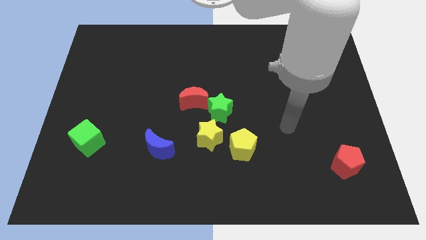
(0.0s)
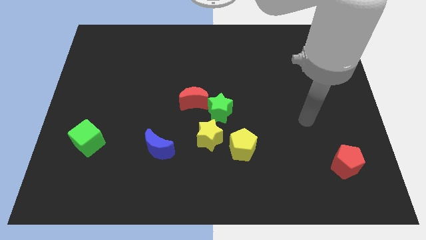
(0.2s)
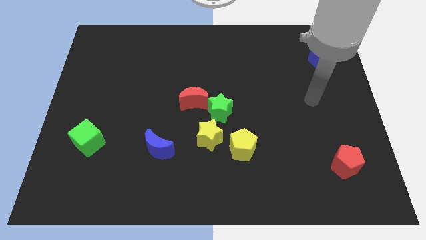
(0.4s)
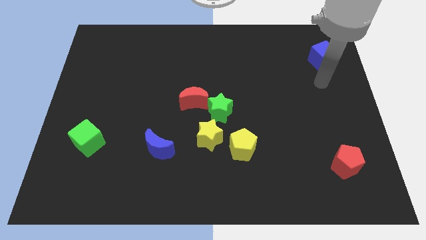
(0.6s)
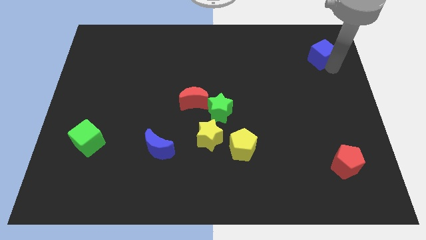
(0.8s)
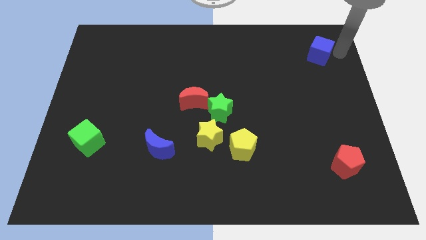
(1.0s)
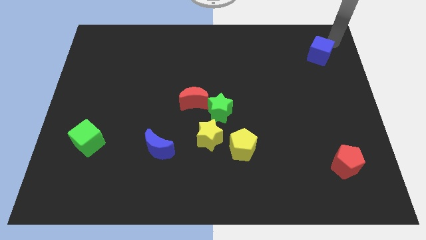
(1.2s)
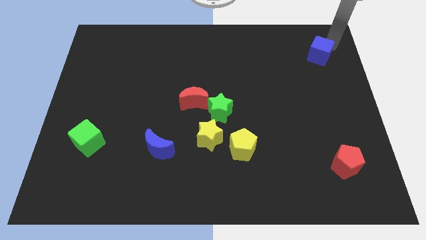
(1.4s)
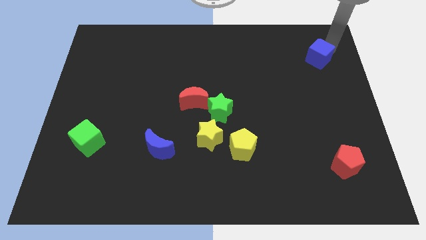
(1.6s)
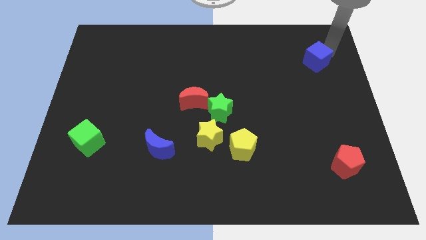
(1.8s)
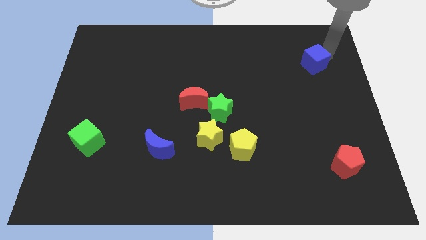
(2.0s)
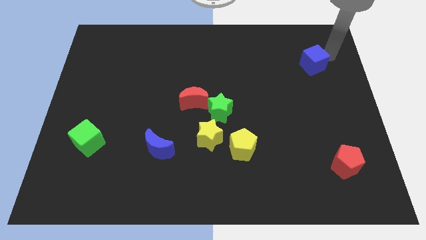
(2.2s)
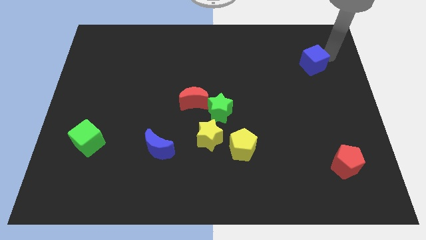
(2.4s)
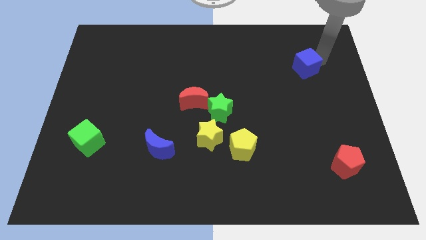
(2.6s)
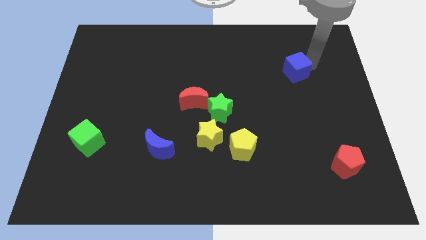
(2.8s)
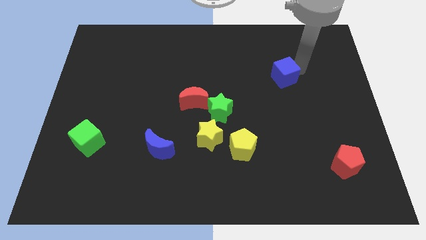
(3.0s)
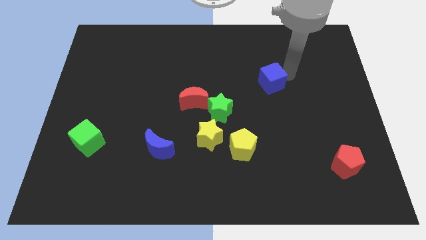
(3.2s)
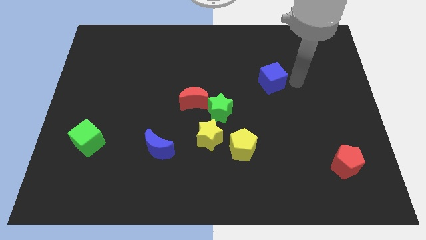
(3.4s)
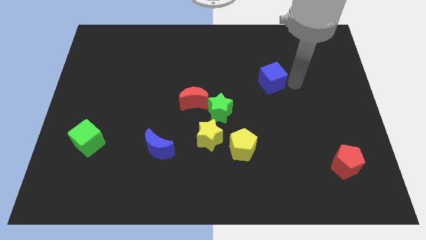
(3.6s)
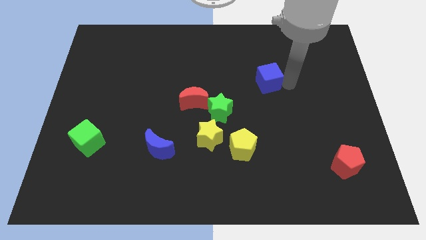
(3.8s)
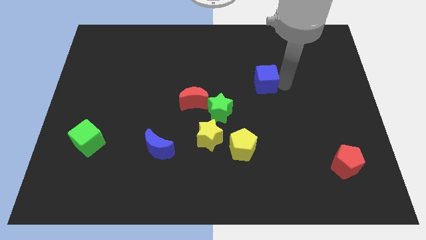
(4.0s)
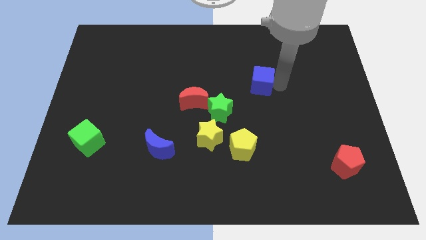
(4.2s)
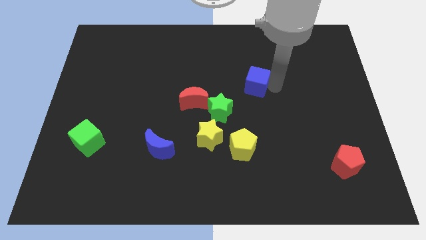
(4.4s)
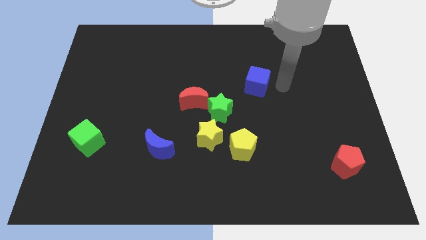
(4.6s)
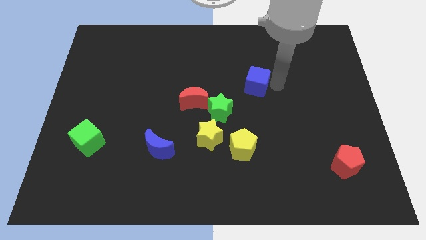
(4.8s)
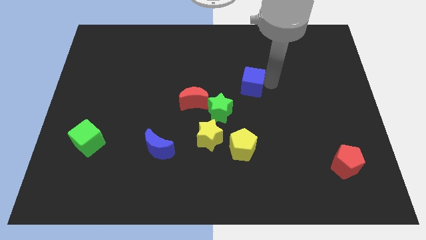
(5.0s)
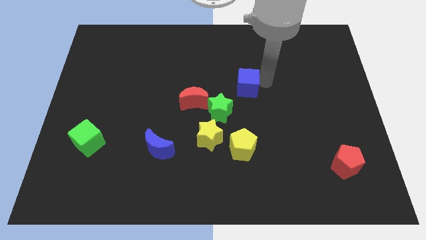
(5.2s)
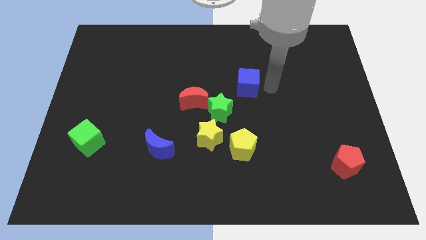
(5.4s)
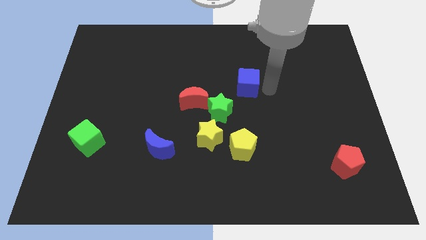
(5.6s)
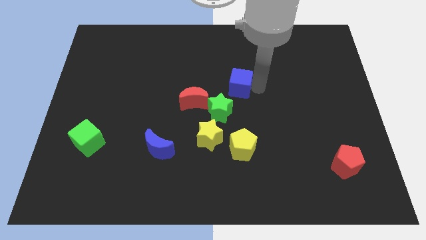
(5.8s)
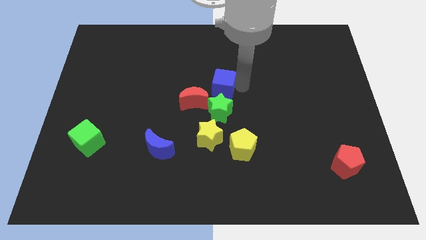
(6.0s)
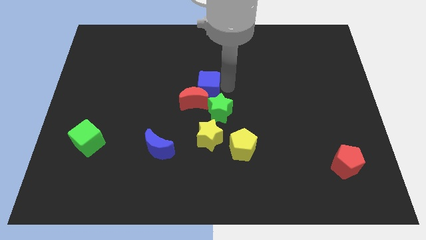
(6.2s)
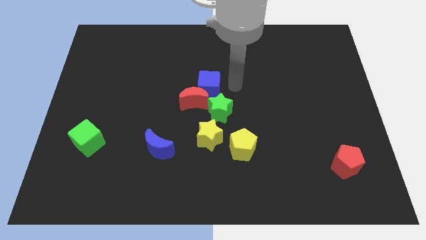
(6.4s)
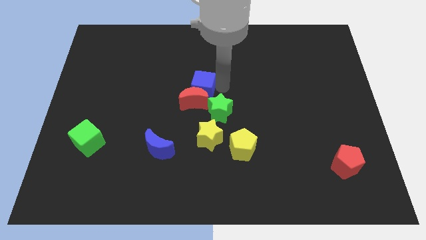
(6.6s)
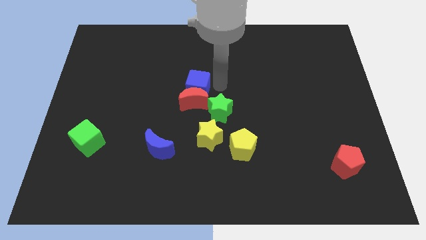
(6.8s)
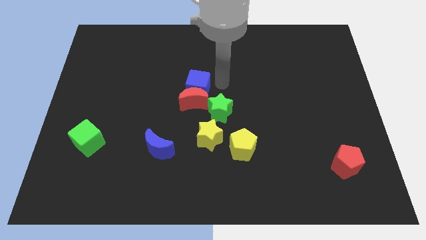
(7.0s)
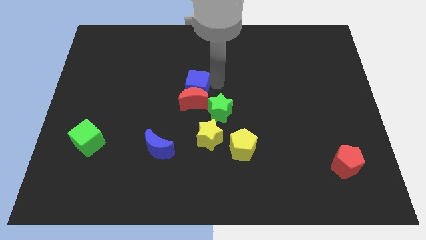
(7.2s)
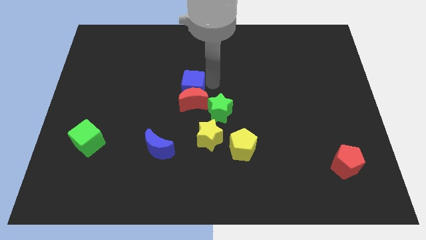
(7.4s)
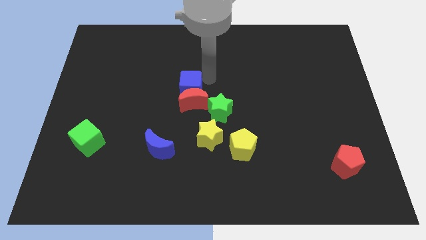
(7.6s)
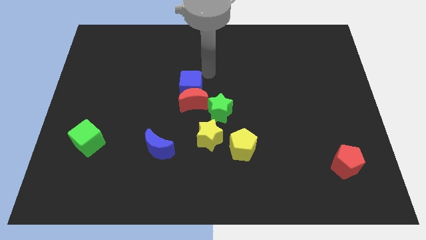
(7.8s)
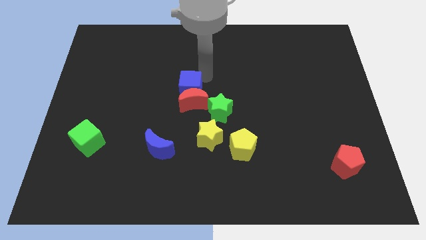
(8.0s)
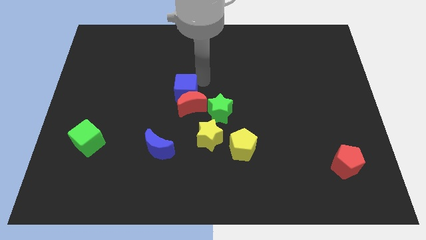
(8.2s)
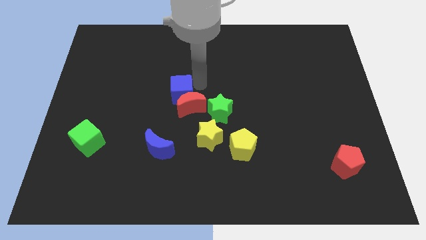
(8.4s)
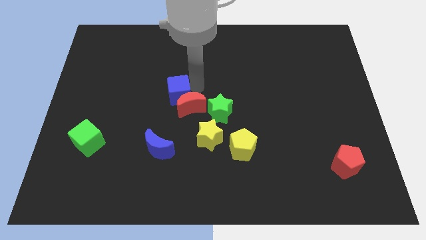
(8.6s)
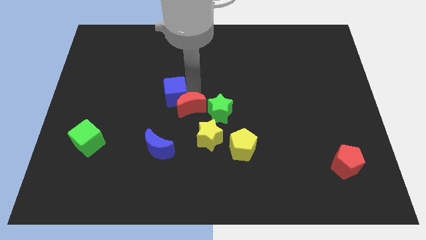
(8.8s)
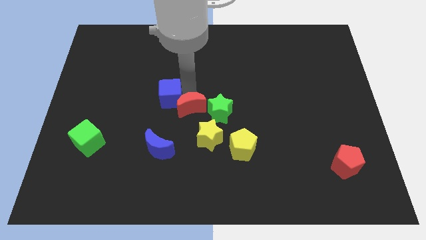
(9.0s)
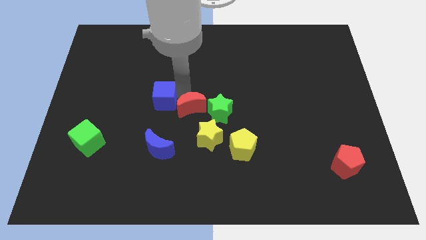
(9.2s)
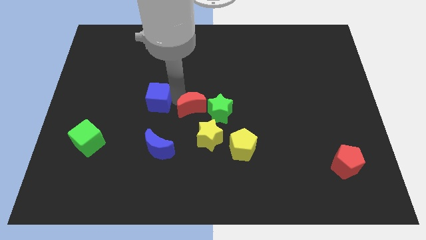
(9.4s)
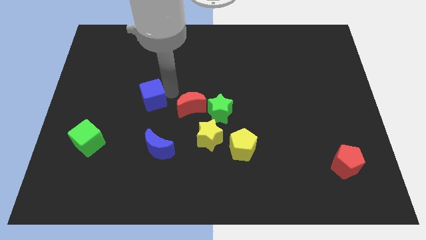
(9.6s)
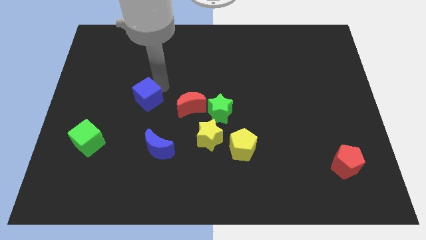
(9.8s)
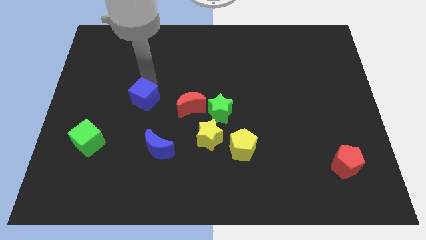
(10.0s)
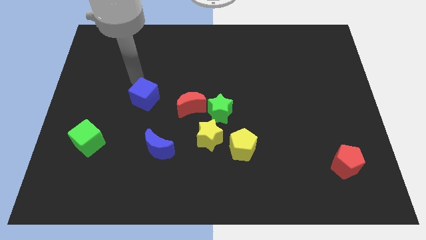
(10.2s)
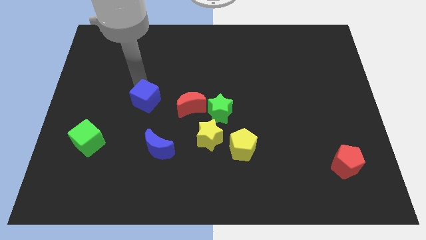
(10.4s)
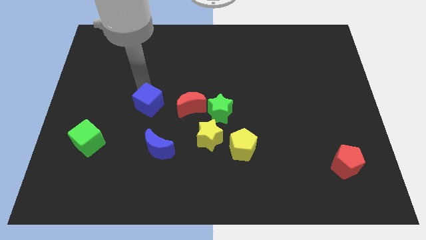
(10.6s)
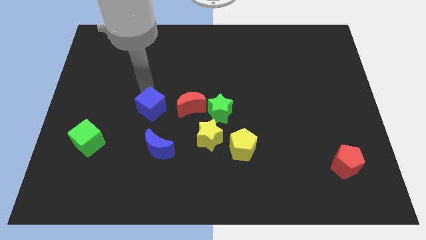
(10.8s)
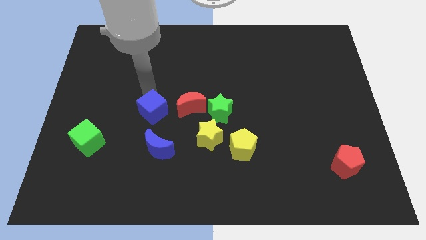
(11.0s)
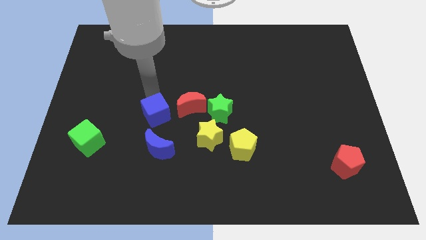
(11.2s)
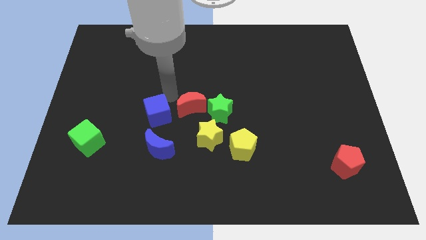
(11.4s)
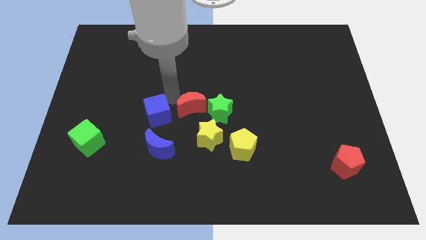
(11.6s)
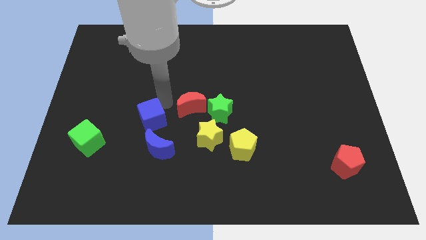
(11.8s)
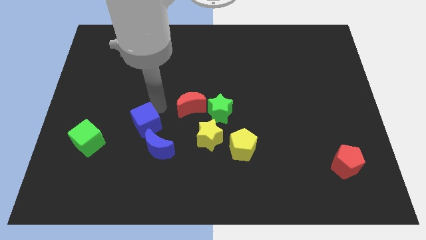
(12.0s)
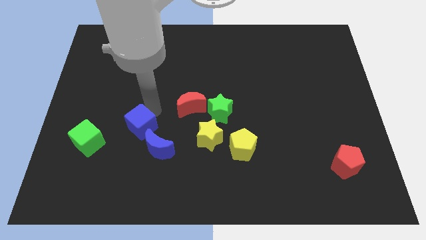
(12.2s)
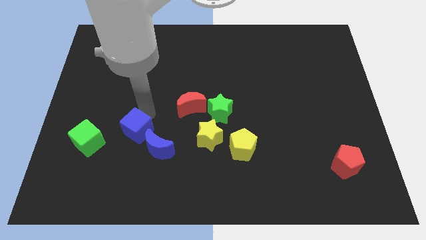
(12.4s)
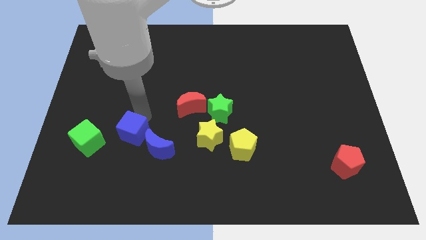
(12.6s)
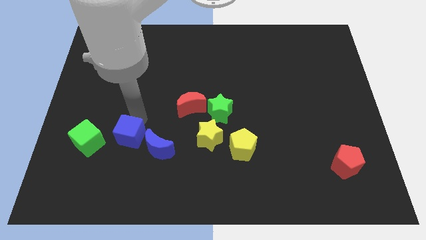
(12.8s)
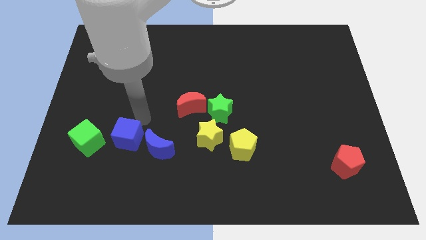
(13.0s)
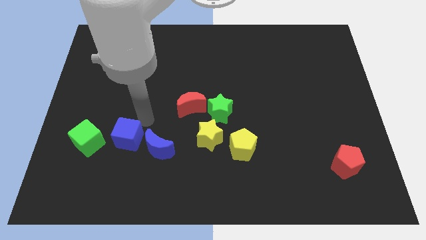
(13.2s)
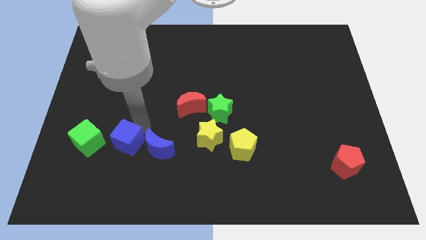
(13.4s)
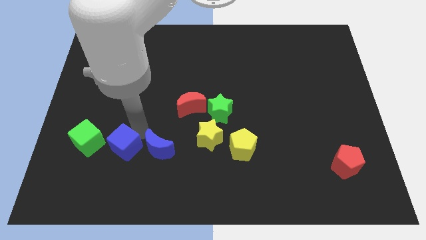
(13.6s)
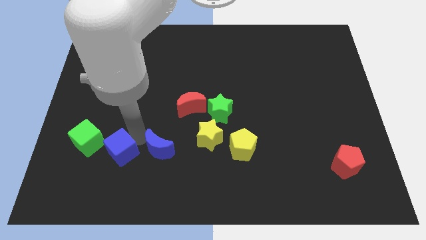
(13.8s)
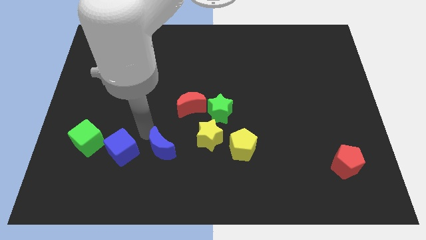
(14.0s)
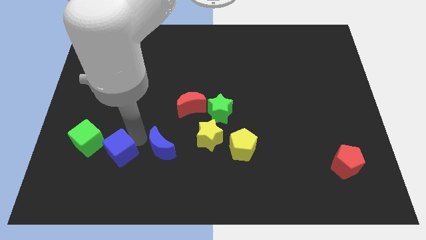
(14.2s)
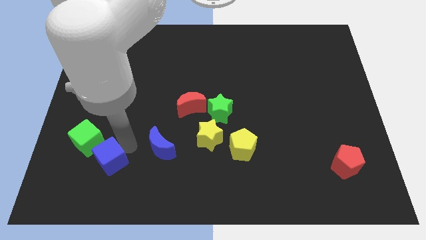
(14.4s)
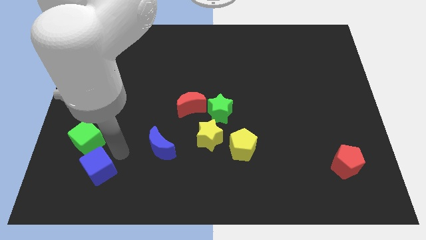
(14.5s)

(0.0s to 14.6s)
move the blue cube below the green cube
